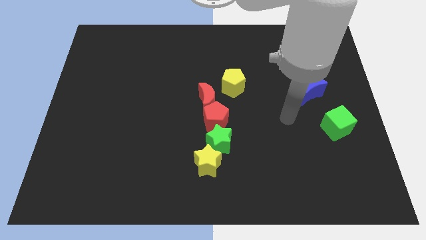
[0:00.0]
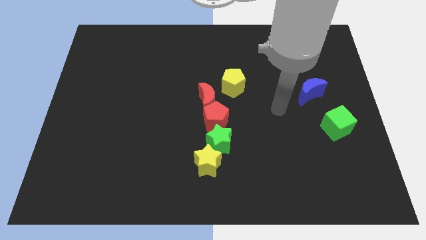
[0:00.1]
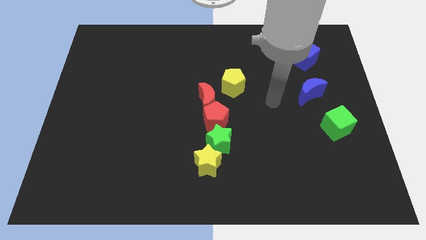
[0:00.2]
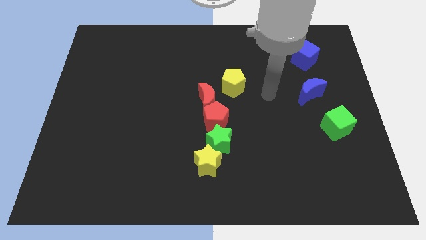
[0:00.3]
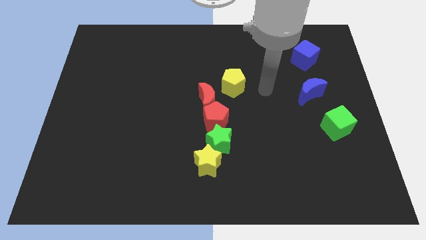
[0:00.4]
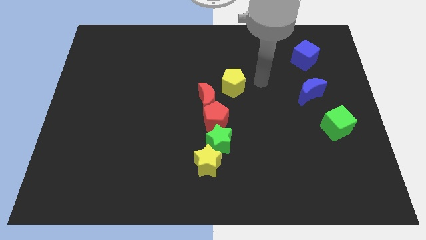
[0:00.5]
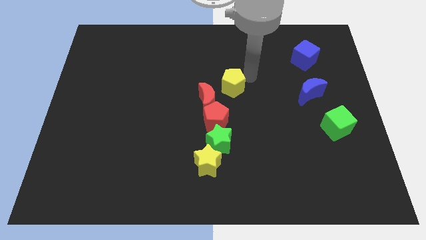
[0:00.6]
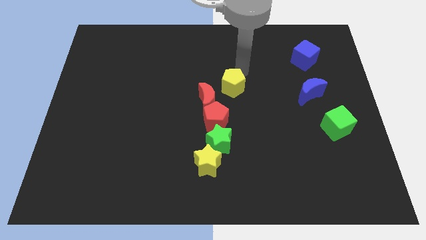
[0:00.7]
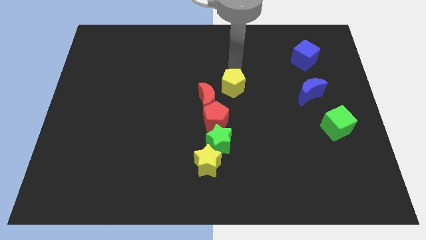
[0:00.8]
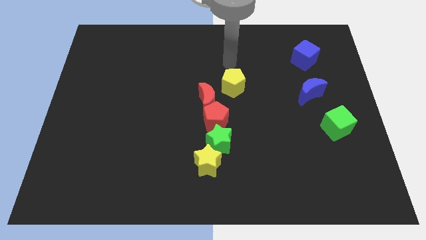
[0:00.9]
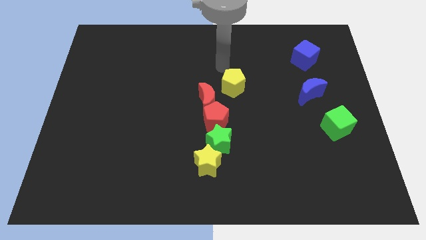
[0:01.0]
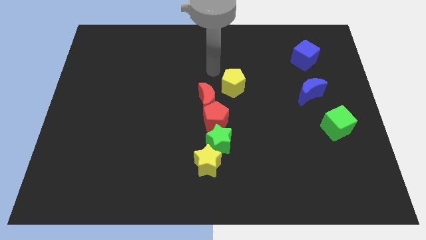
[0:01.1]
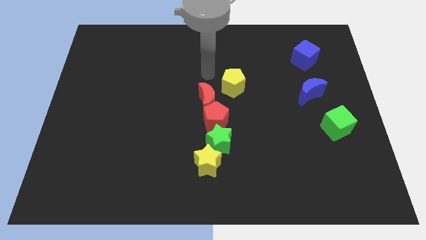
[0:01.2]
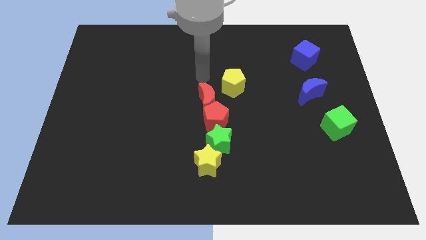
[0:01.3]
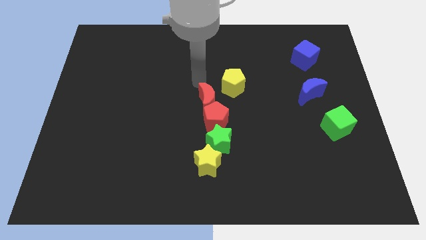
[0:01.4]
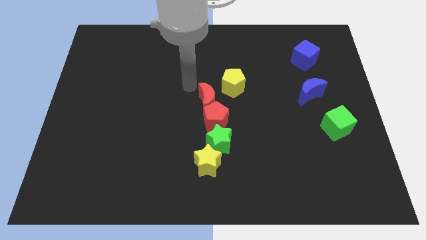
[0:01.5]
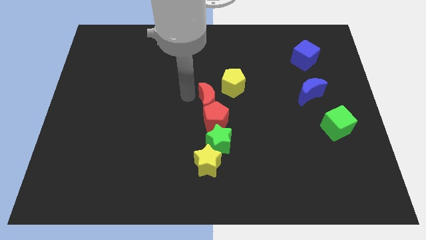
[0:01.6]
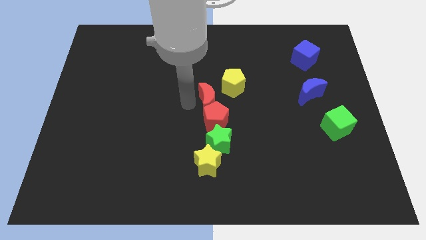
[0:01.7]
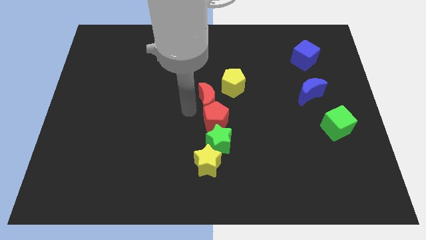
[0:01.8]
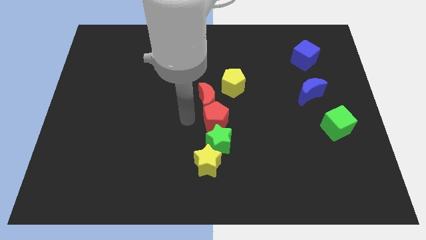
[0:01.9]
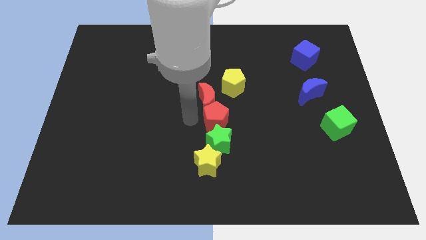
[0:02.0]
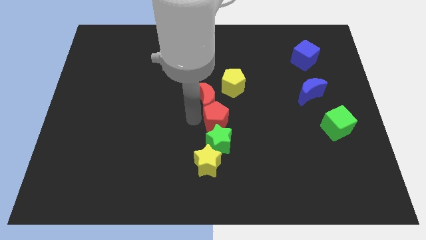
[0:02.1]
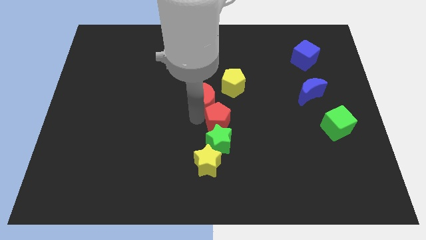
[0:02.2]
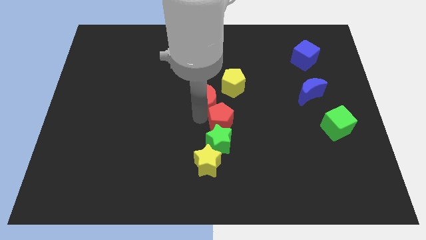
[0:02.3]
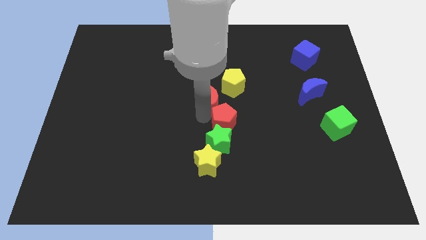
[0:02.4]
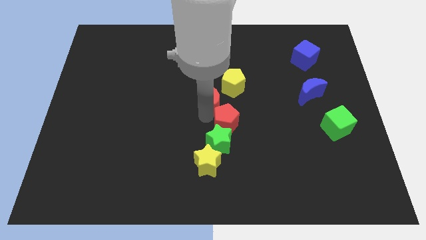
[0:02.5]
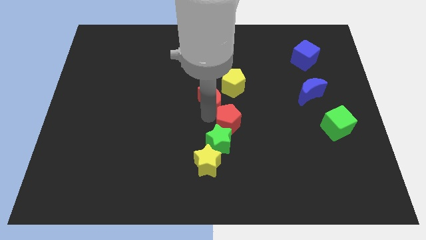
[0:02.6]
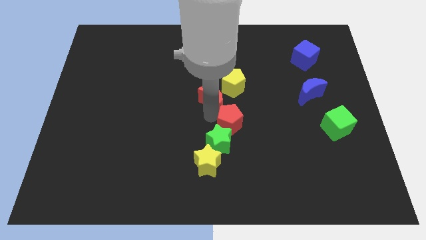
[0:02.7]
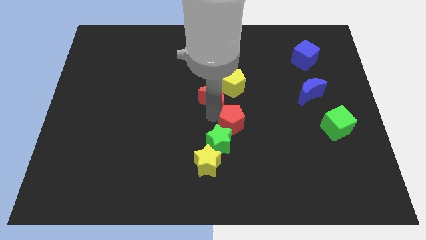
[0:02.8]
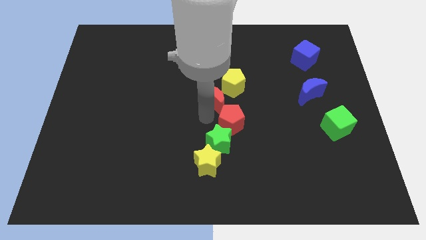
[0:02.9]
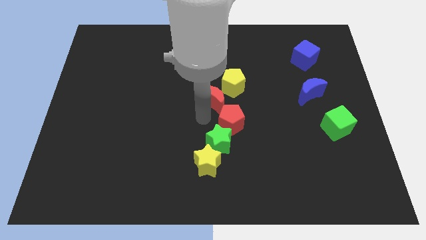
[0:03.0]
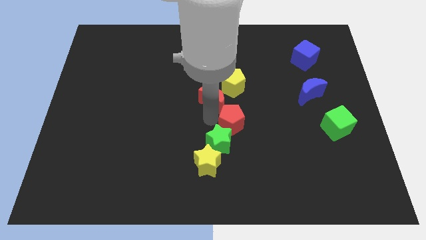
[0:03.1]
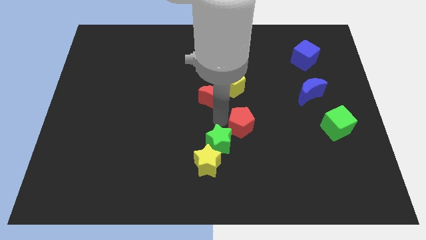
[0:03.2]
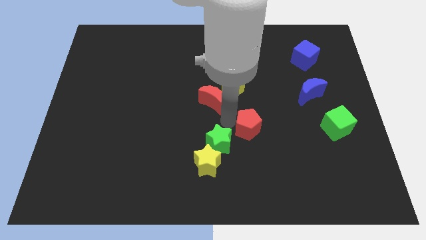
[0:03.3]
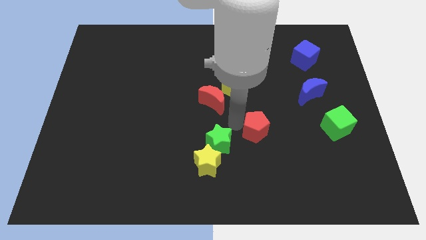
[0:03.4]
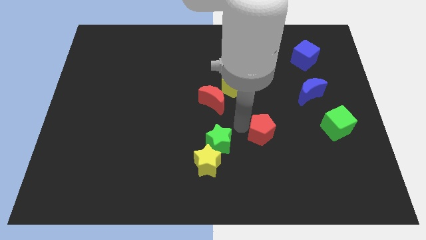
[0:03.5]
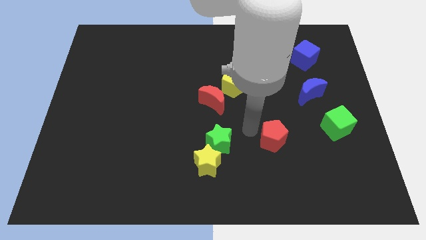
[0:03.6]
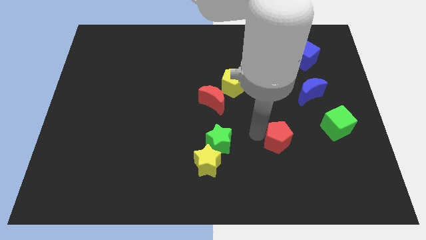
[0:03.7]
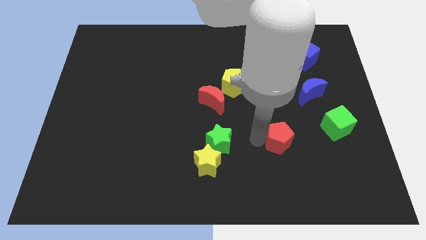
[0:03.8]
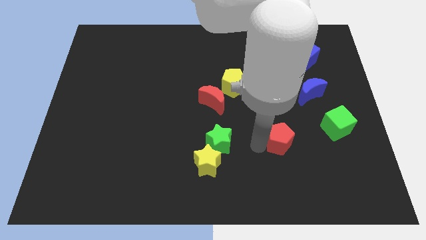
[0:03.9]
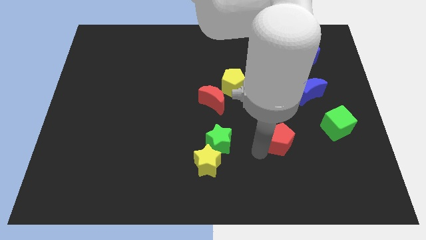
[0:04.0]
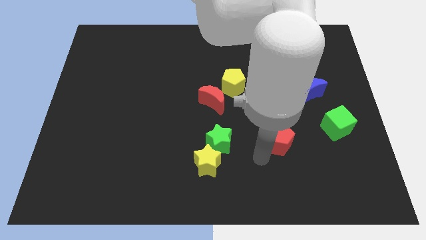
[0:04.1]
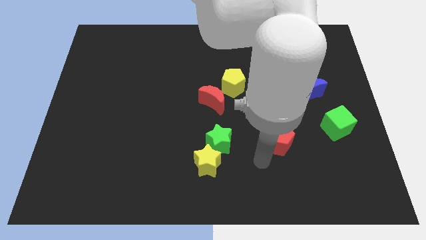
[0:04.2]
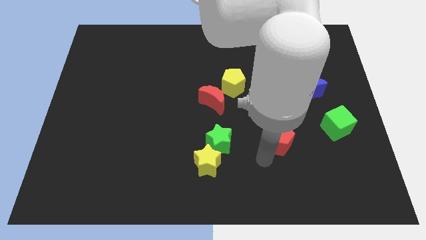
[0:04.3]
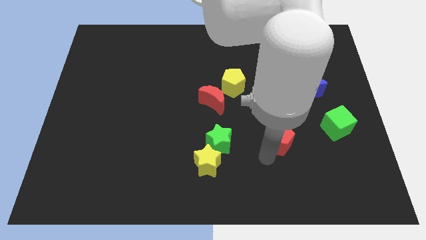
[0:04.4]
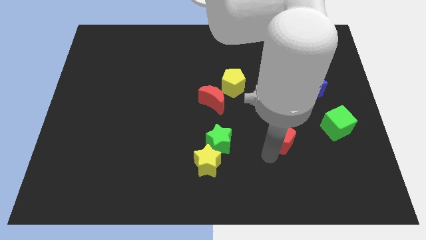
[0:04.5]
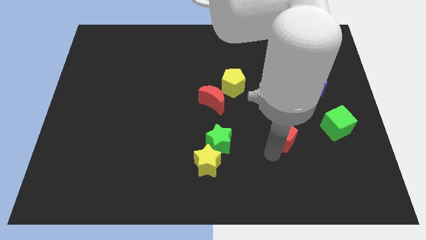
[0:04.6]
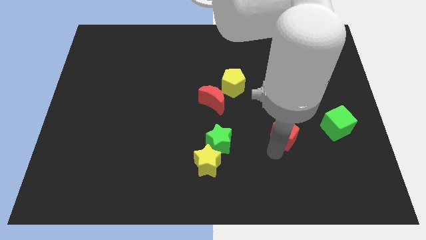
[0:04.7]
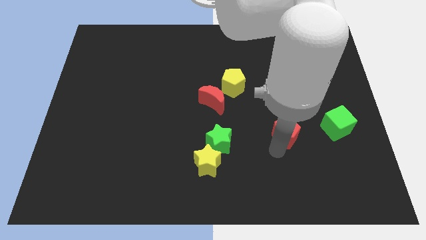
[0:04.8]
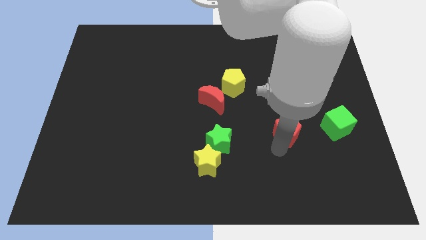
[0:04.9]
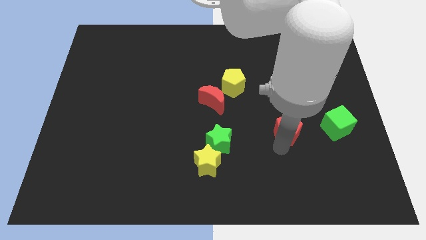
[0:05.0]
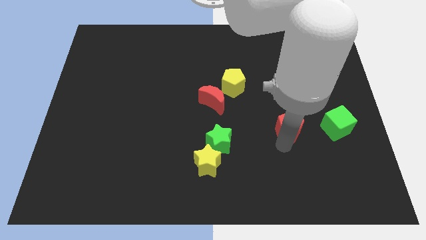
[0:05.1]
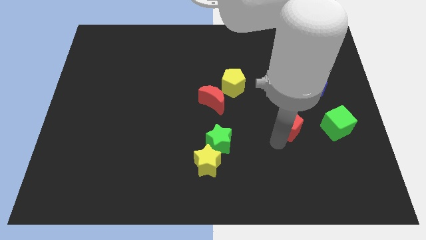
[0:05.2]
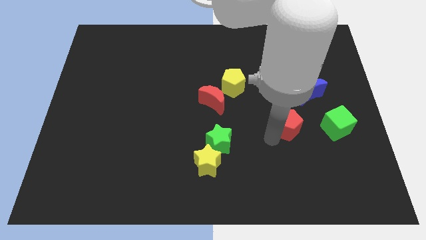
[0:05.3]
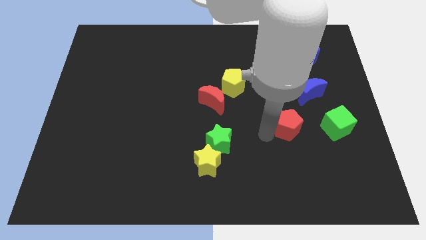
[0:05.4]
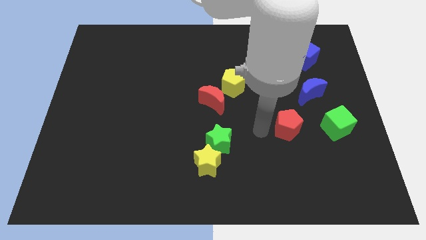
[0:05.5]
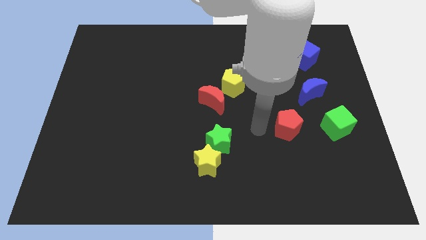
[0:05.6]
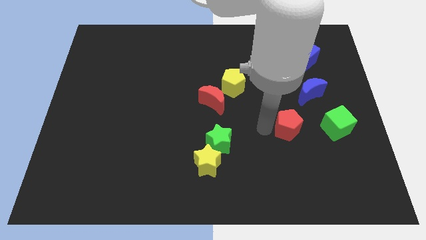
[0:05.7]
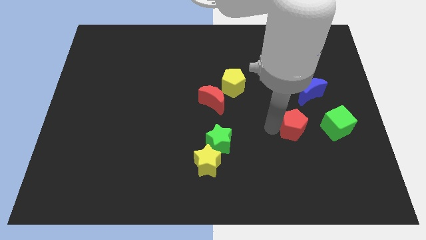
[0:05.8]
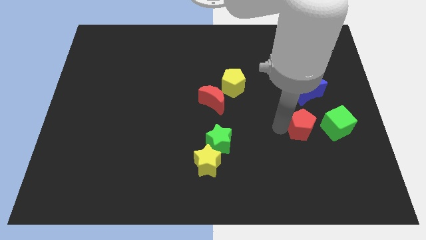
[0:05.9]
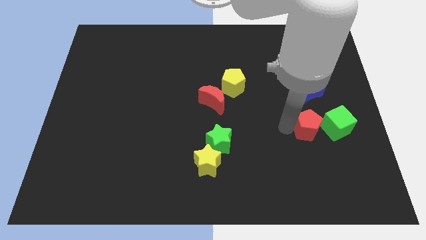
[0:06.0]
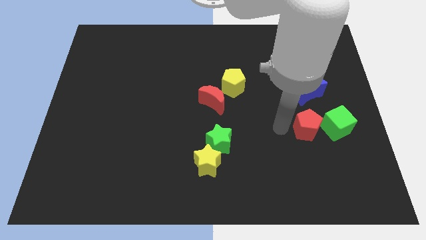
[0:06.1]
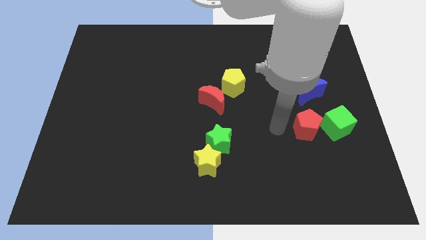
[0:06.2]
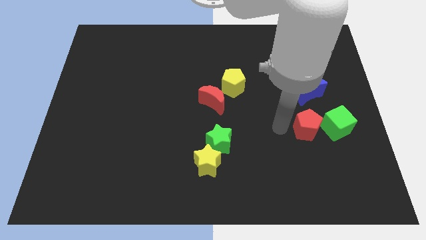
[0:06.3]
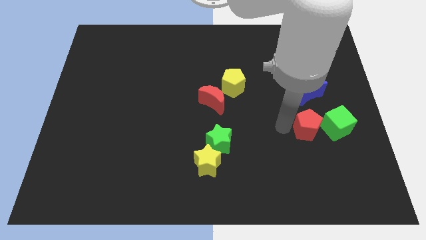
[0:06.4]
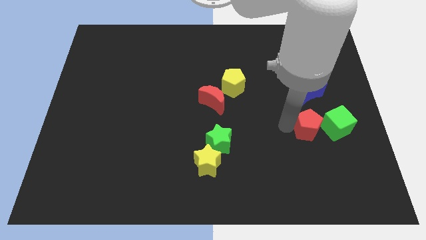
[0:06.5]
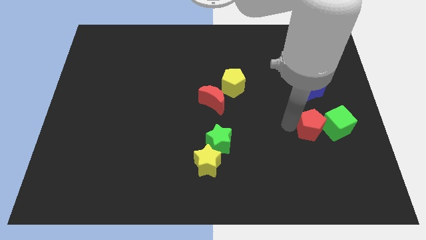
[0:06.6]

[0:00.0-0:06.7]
push the red pentagon next to the green cube
